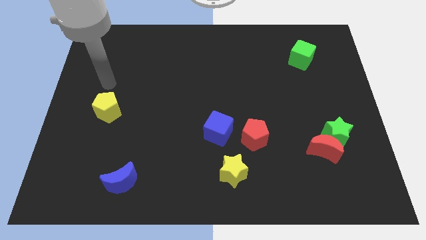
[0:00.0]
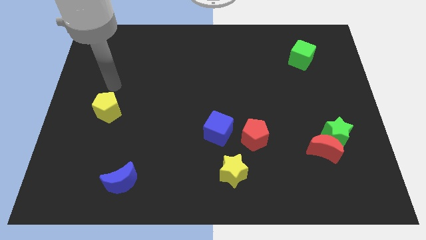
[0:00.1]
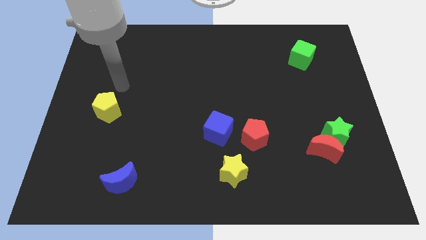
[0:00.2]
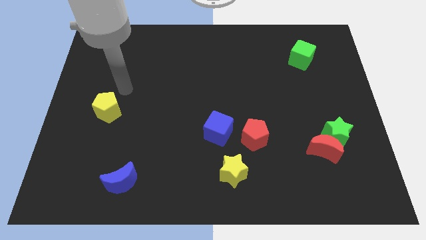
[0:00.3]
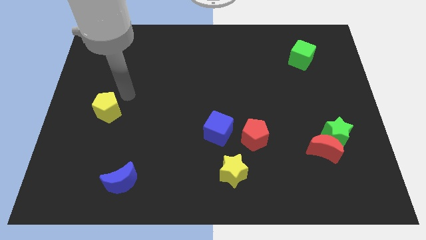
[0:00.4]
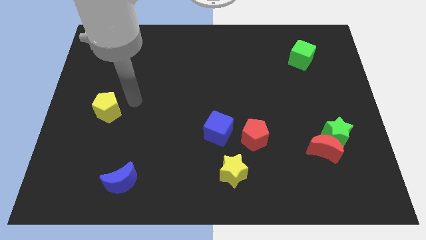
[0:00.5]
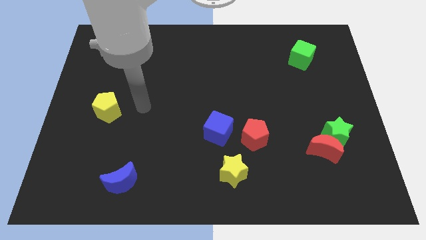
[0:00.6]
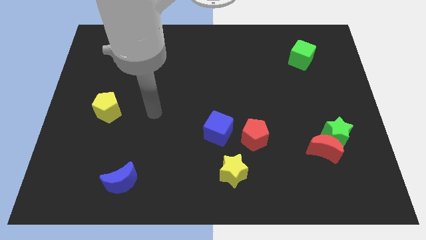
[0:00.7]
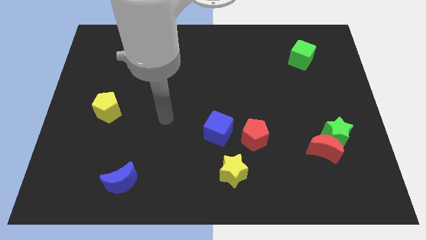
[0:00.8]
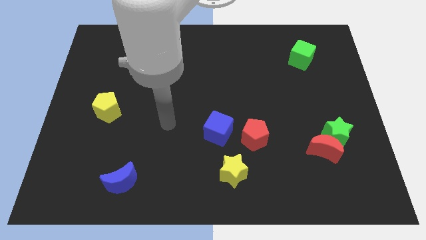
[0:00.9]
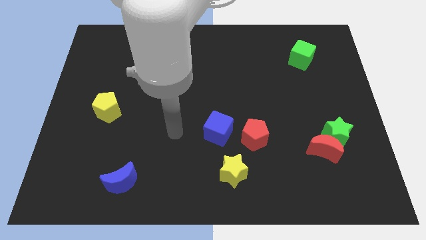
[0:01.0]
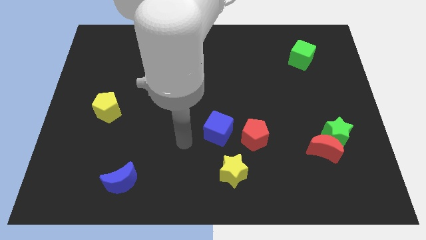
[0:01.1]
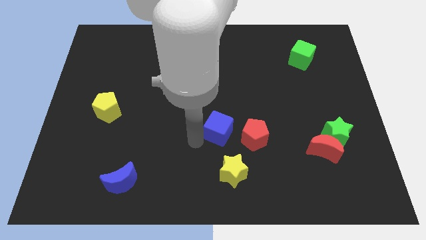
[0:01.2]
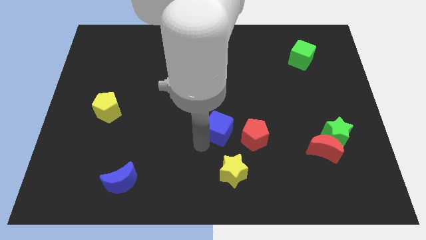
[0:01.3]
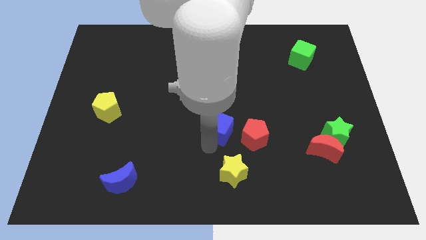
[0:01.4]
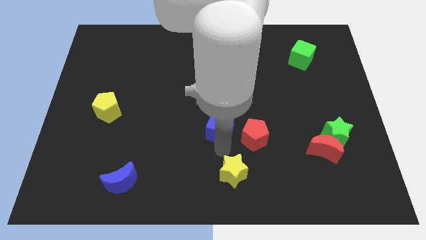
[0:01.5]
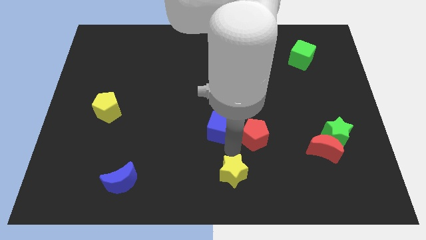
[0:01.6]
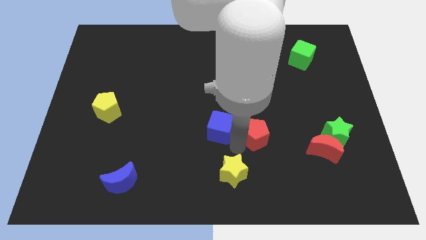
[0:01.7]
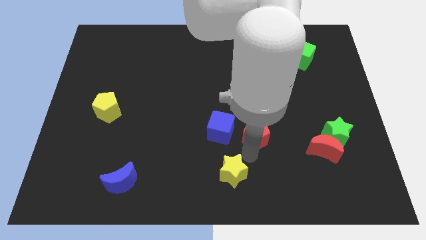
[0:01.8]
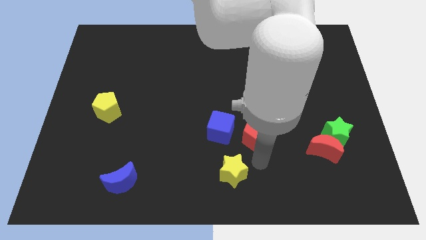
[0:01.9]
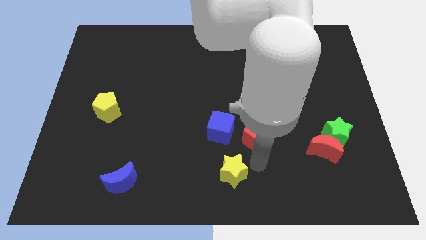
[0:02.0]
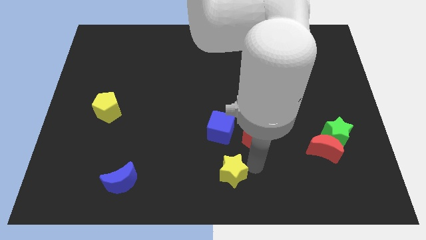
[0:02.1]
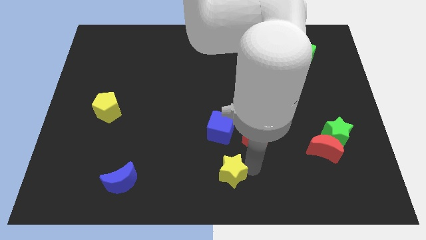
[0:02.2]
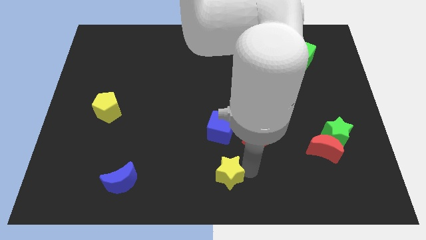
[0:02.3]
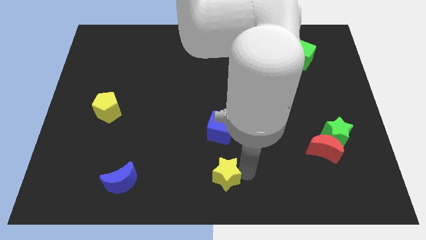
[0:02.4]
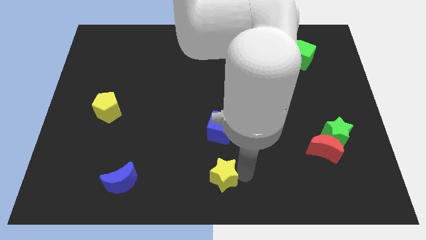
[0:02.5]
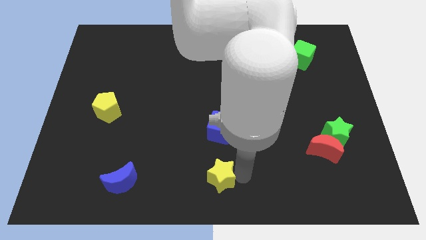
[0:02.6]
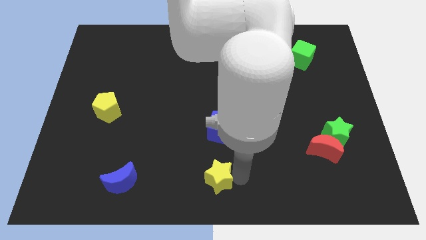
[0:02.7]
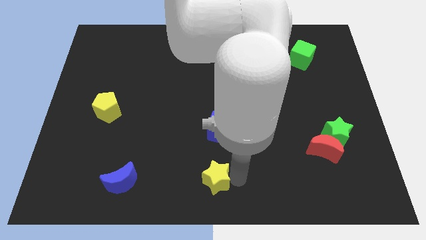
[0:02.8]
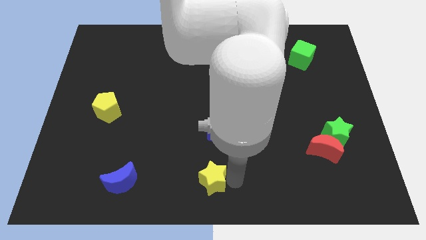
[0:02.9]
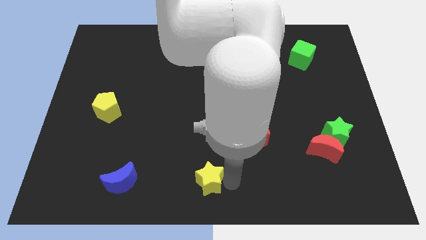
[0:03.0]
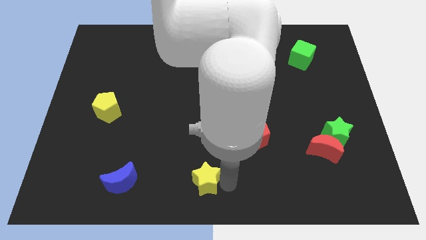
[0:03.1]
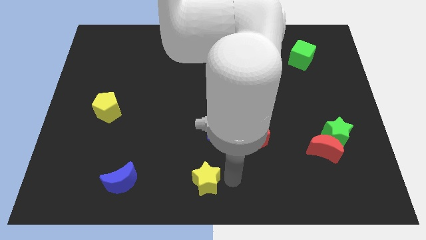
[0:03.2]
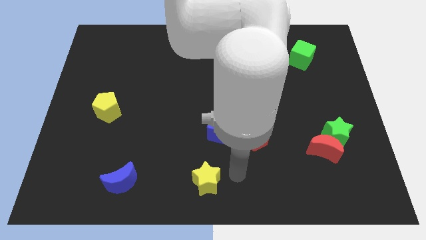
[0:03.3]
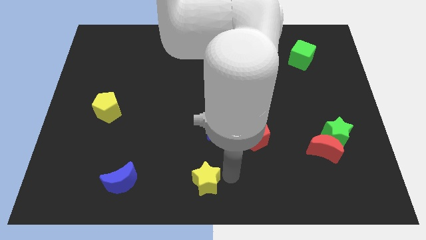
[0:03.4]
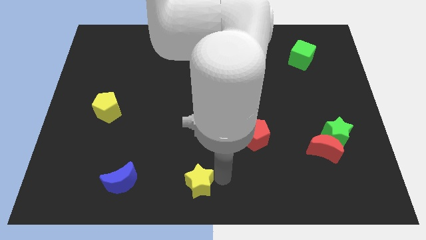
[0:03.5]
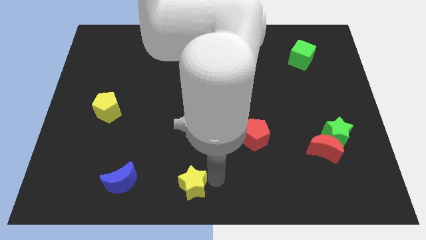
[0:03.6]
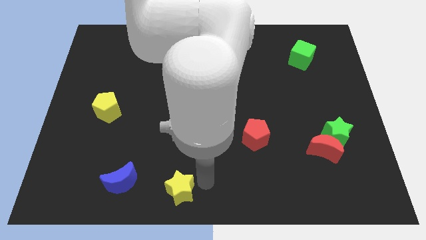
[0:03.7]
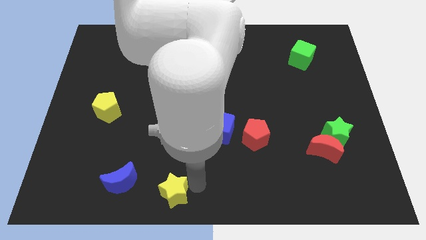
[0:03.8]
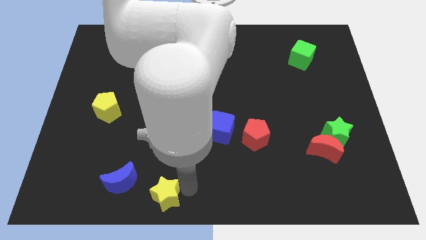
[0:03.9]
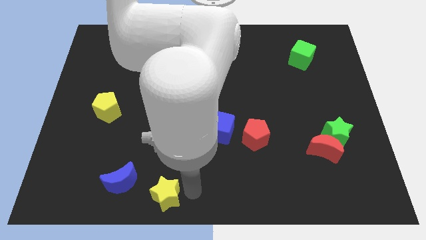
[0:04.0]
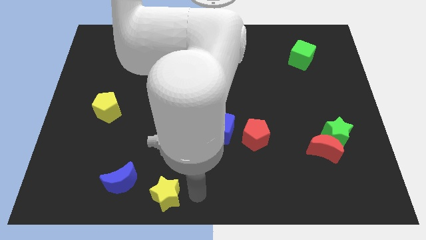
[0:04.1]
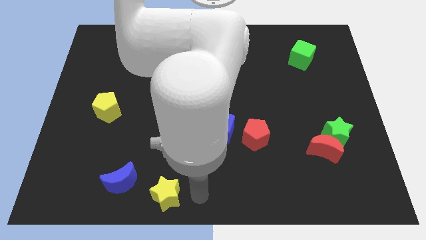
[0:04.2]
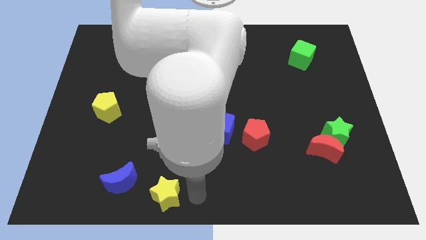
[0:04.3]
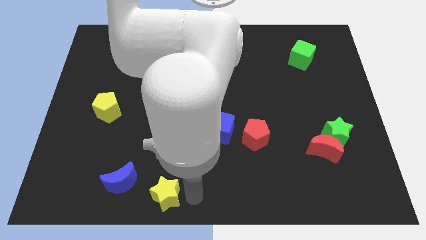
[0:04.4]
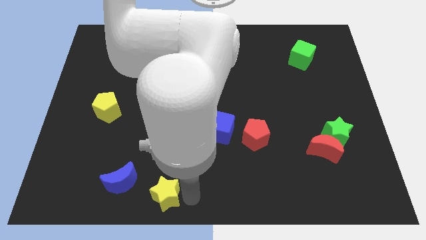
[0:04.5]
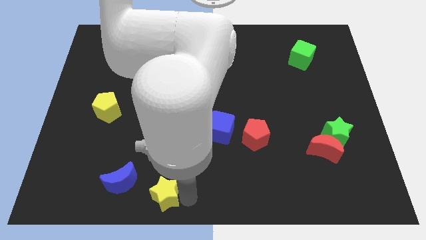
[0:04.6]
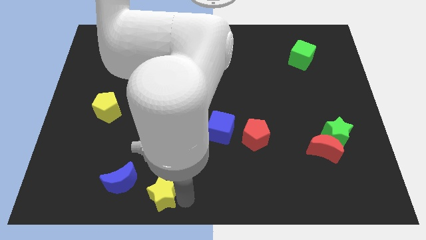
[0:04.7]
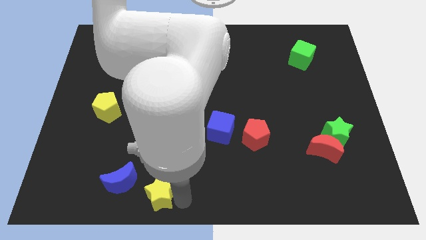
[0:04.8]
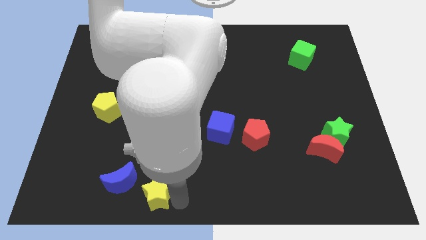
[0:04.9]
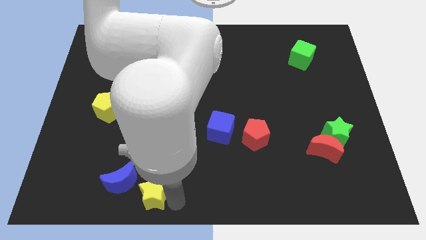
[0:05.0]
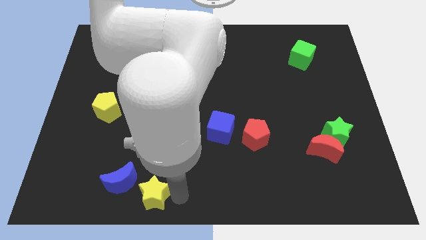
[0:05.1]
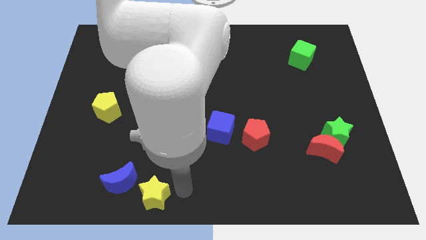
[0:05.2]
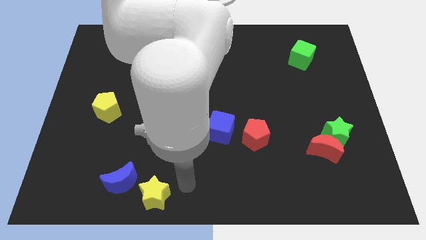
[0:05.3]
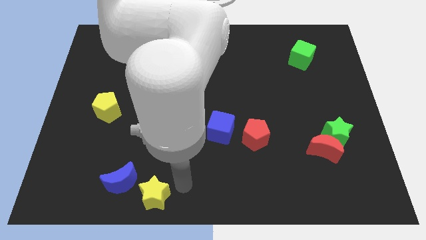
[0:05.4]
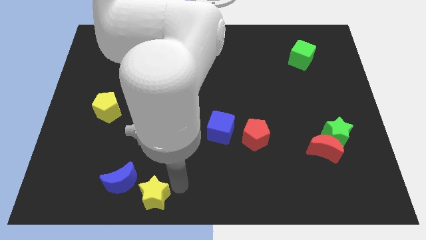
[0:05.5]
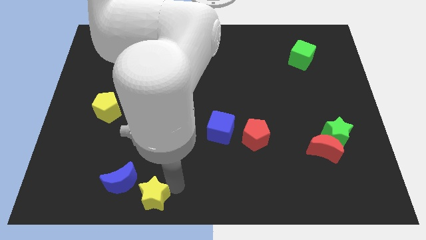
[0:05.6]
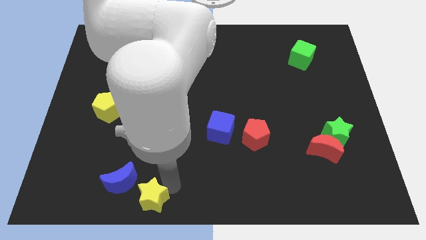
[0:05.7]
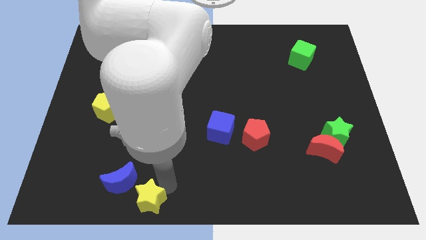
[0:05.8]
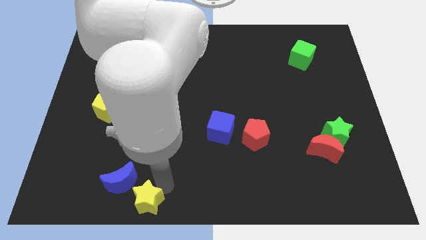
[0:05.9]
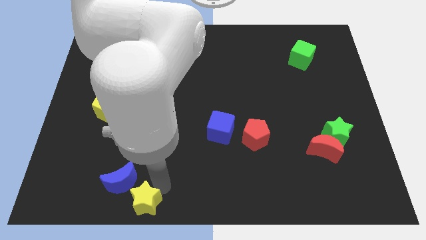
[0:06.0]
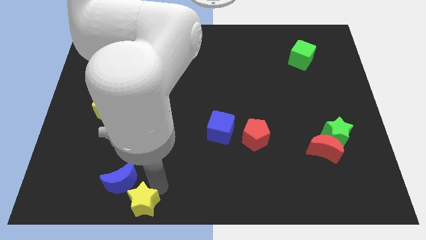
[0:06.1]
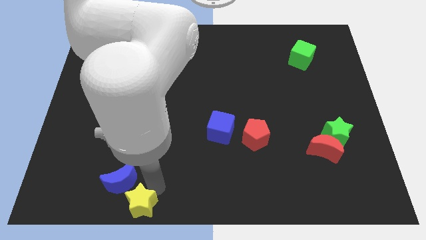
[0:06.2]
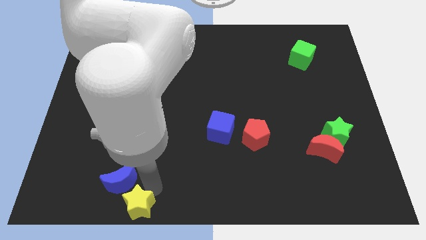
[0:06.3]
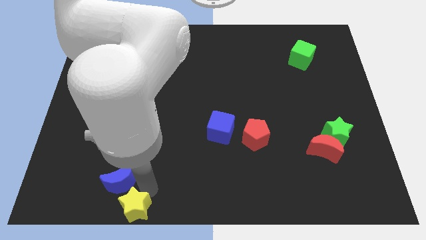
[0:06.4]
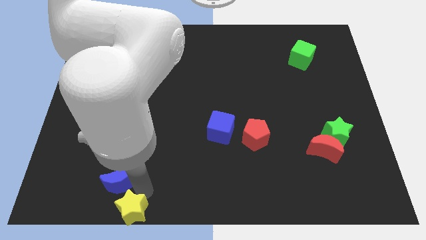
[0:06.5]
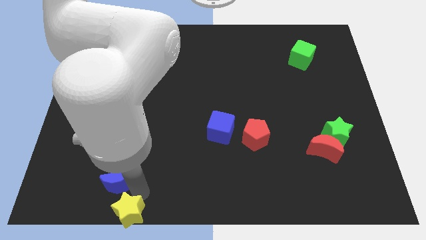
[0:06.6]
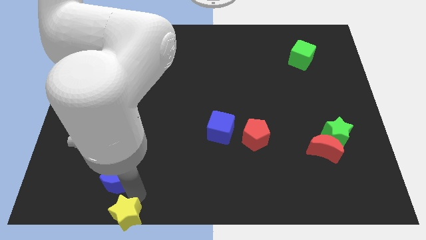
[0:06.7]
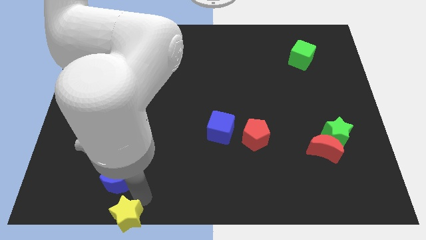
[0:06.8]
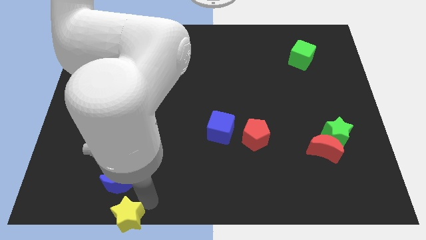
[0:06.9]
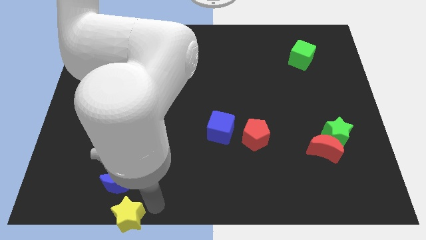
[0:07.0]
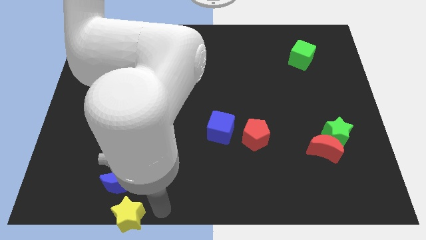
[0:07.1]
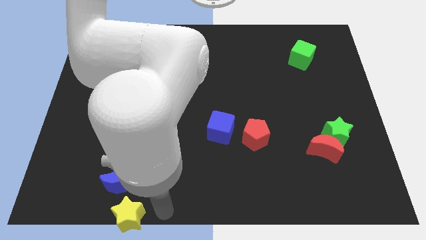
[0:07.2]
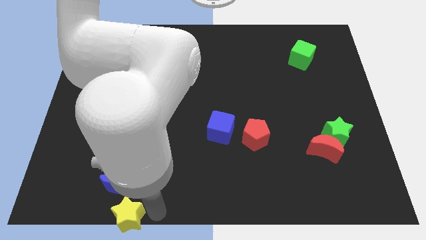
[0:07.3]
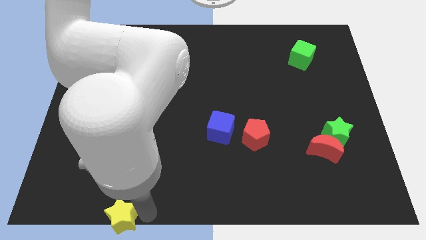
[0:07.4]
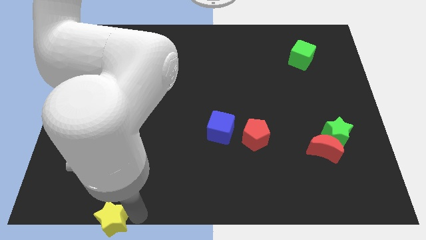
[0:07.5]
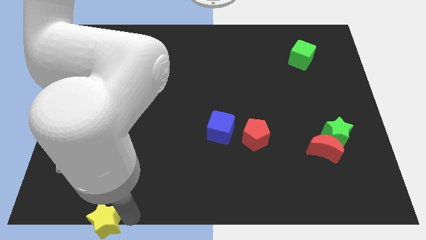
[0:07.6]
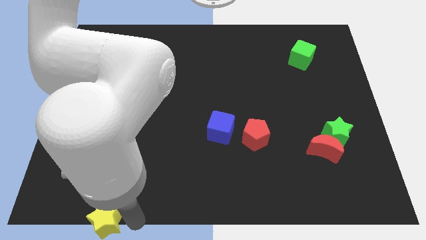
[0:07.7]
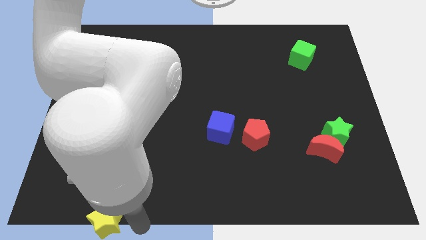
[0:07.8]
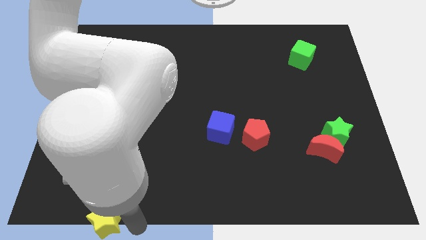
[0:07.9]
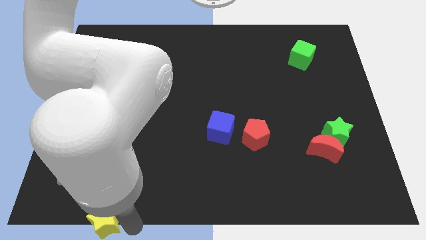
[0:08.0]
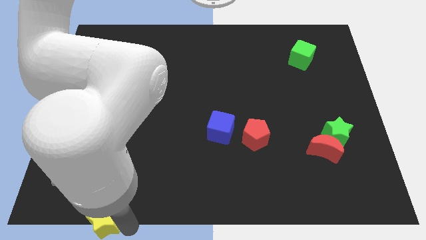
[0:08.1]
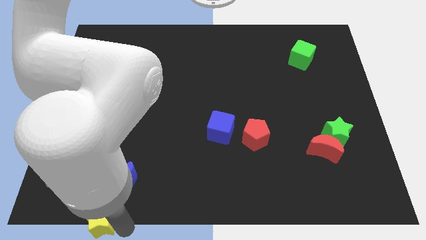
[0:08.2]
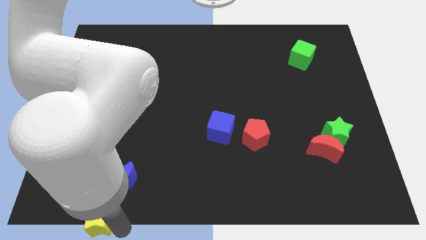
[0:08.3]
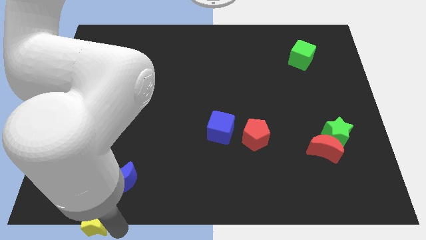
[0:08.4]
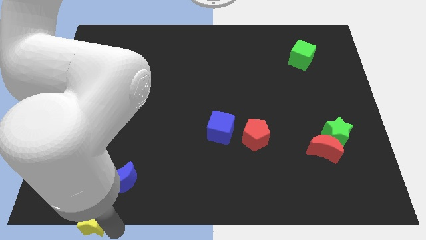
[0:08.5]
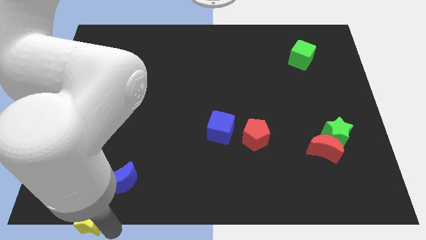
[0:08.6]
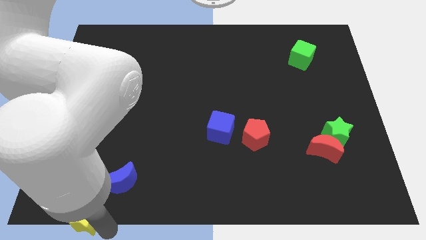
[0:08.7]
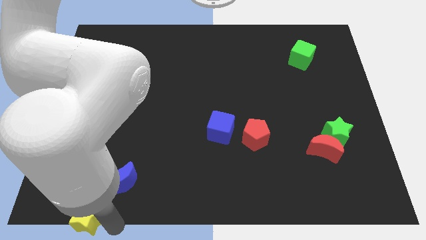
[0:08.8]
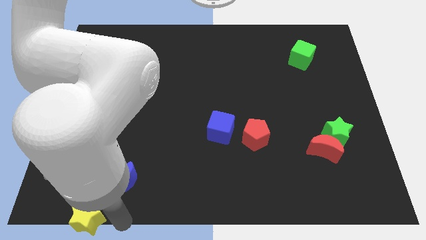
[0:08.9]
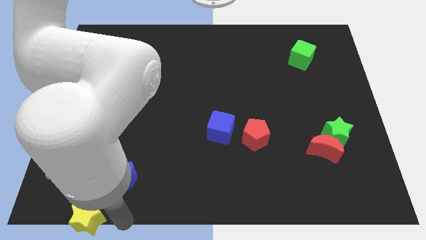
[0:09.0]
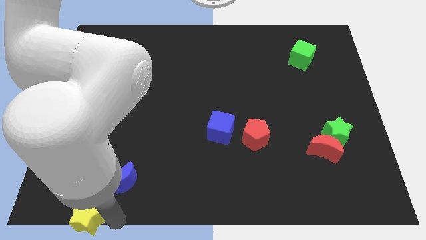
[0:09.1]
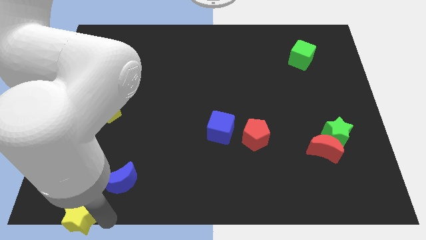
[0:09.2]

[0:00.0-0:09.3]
put the yellow star to the bottom left of the board
